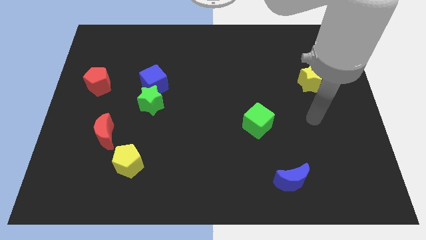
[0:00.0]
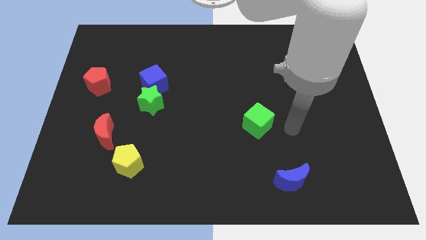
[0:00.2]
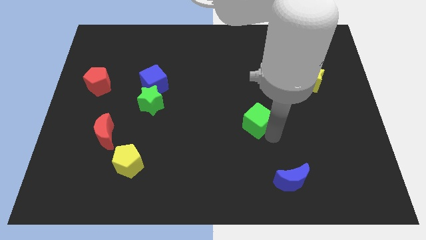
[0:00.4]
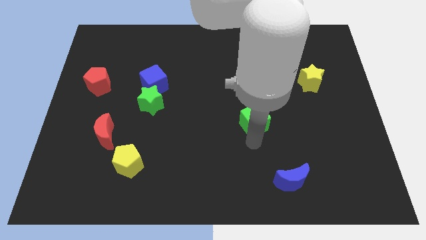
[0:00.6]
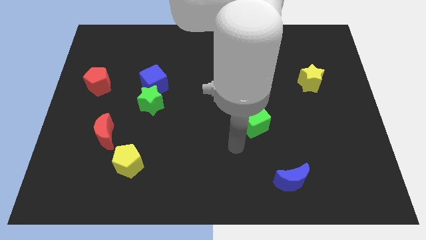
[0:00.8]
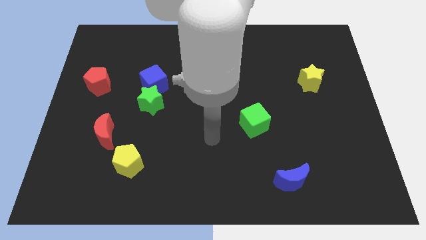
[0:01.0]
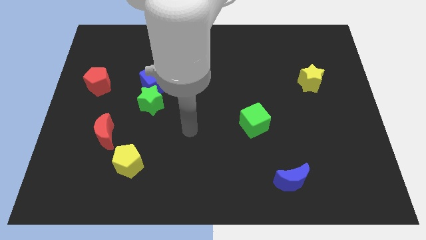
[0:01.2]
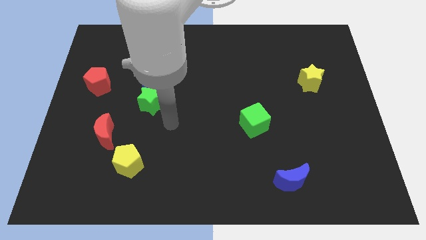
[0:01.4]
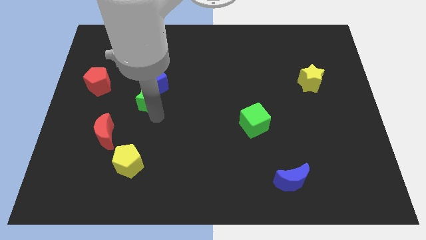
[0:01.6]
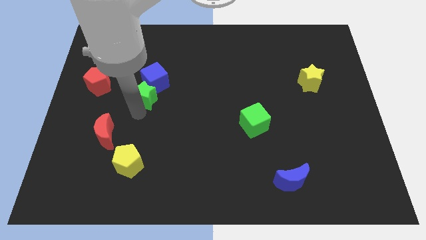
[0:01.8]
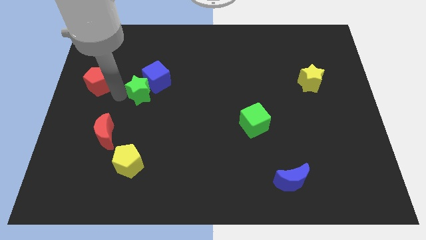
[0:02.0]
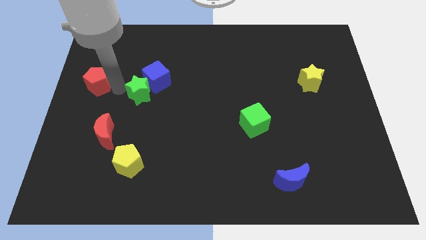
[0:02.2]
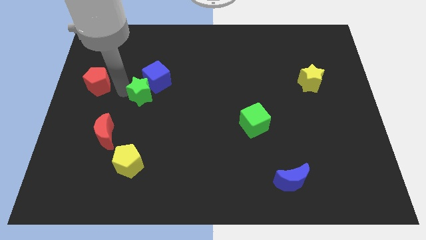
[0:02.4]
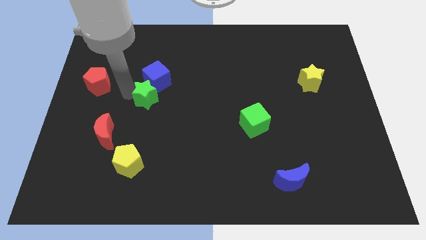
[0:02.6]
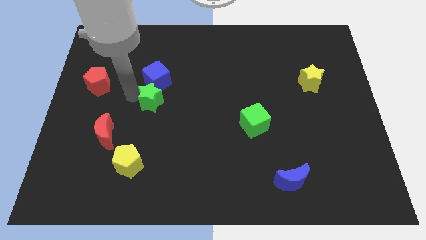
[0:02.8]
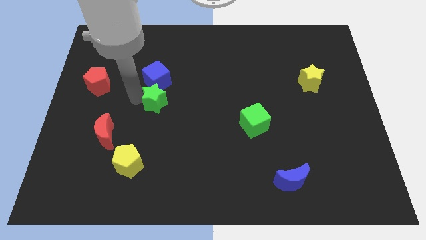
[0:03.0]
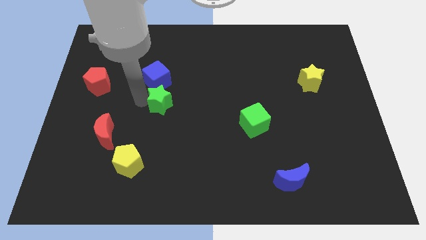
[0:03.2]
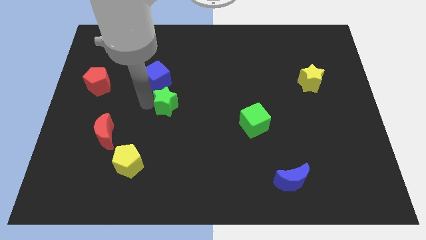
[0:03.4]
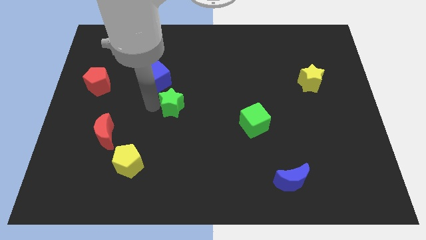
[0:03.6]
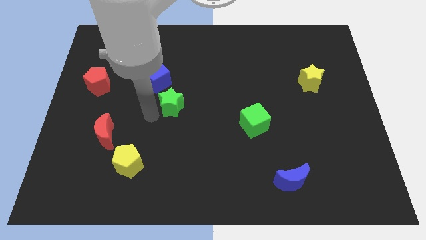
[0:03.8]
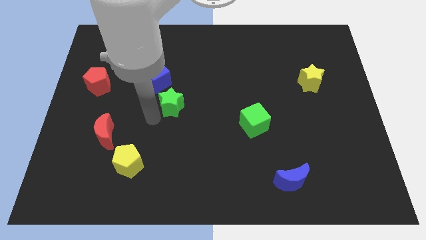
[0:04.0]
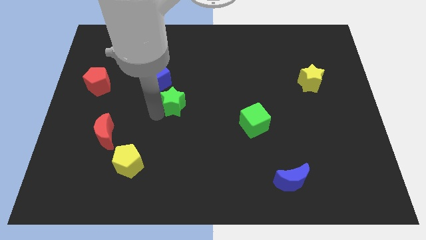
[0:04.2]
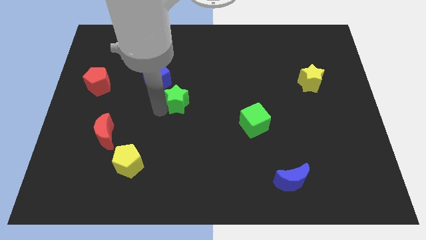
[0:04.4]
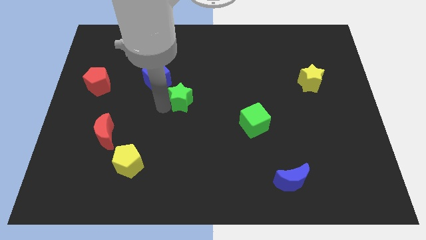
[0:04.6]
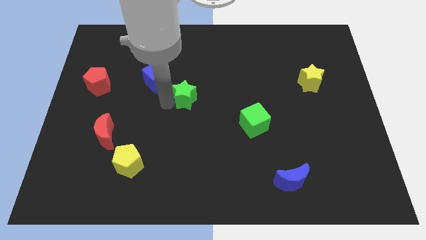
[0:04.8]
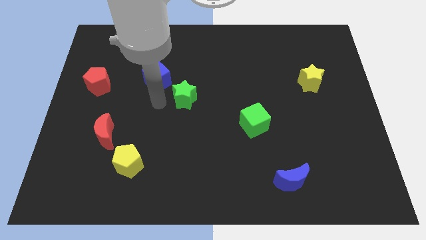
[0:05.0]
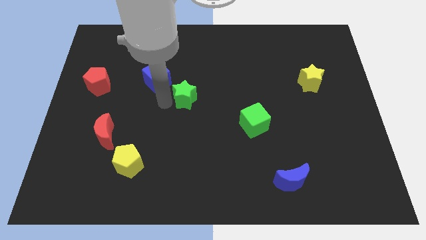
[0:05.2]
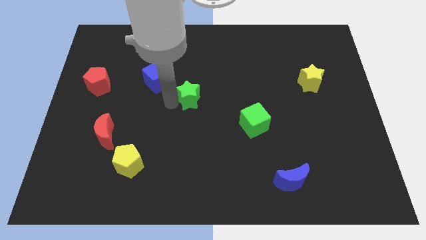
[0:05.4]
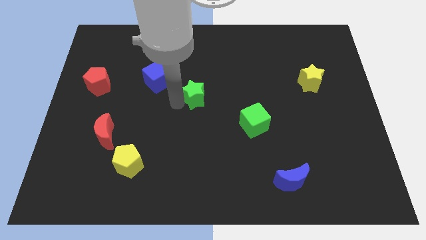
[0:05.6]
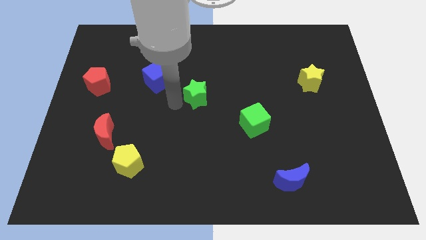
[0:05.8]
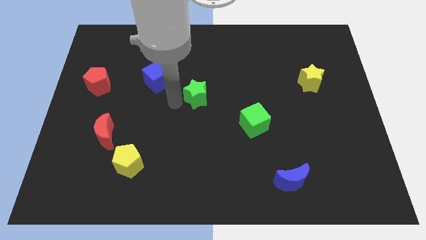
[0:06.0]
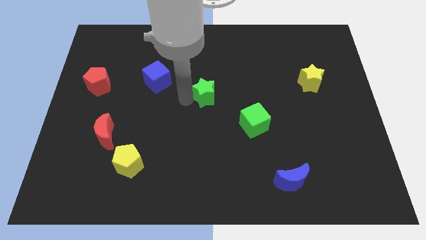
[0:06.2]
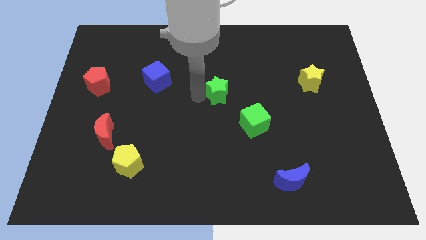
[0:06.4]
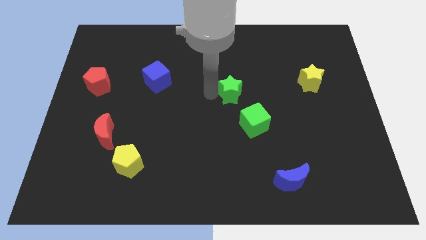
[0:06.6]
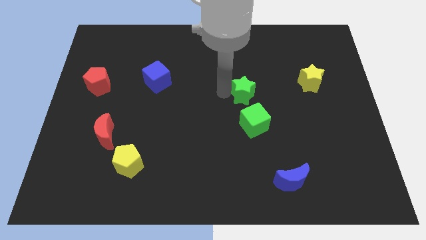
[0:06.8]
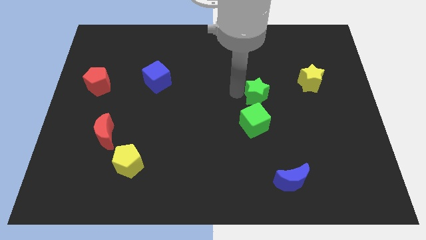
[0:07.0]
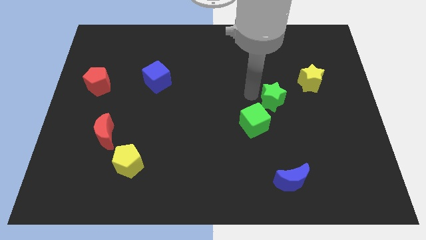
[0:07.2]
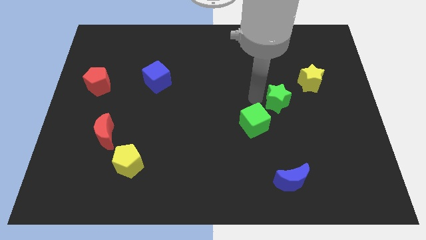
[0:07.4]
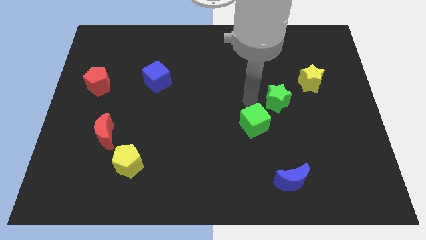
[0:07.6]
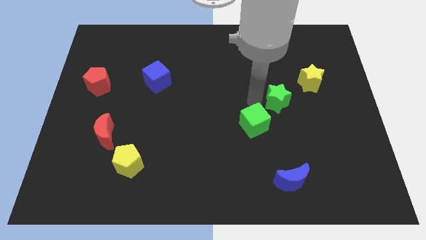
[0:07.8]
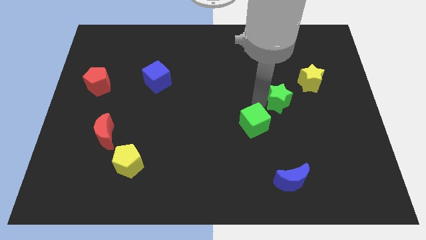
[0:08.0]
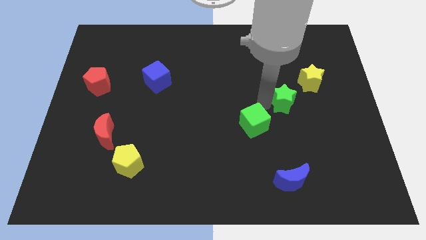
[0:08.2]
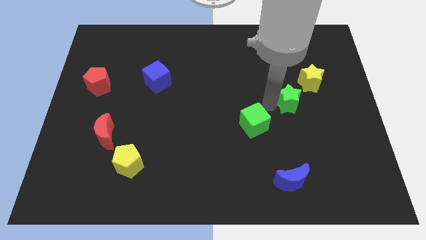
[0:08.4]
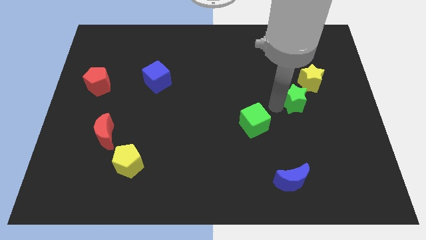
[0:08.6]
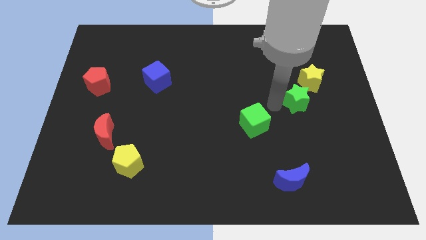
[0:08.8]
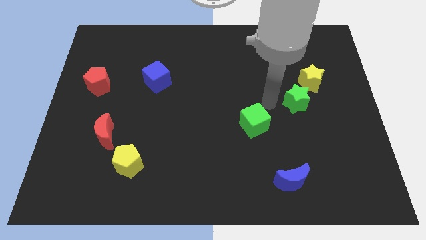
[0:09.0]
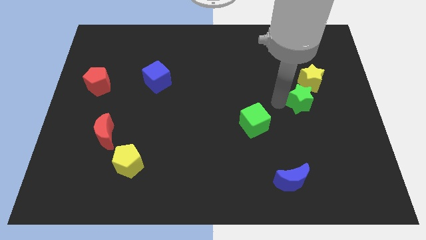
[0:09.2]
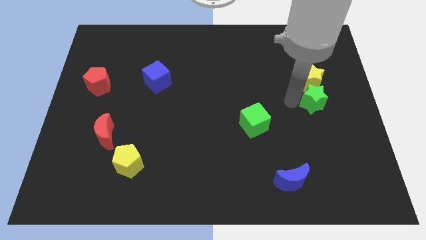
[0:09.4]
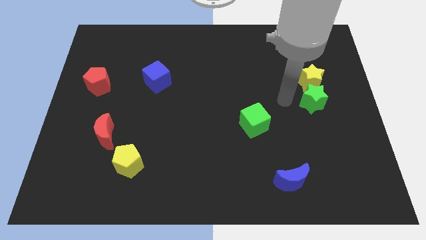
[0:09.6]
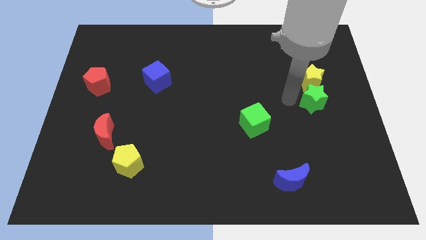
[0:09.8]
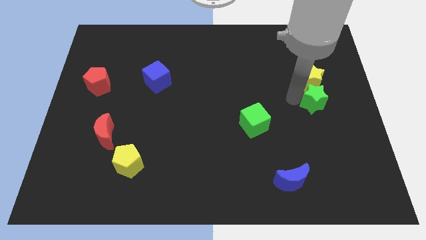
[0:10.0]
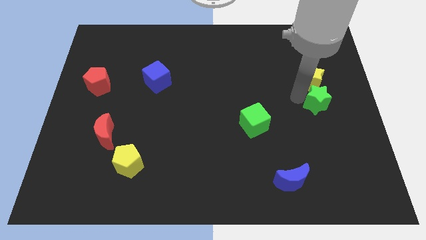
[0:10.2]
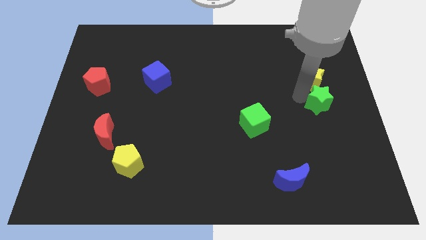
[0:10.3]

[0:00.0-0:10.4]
put the green star to the center right

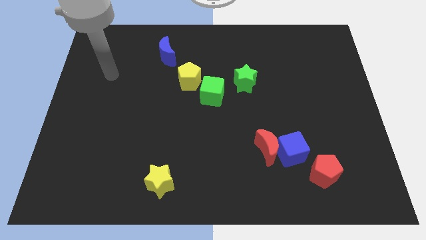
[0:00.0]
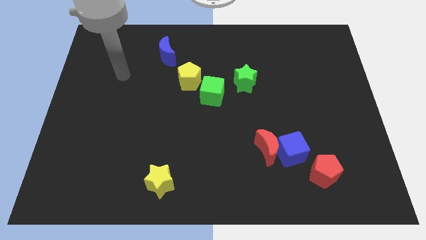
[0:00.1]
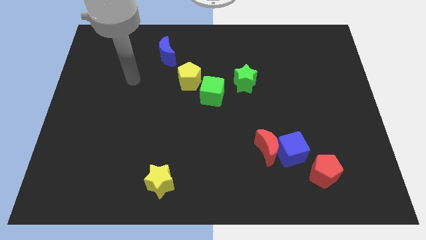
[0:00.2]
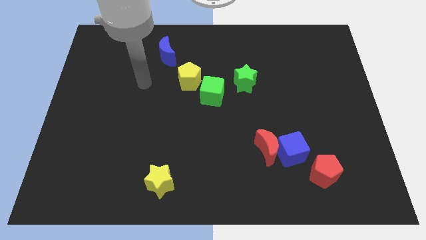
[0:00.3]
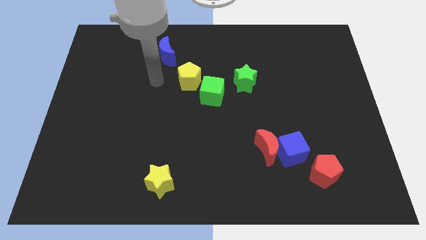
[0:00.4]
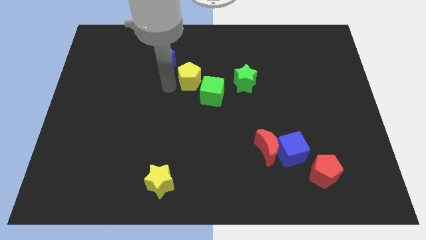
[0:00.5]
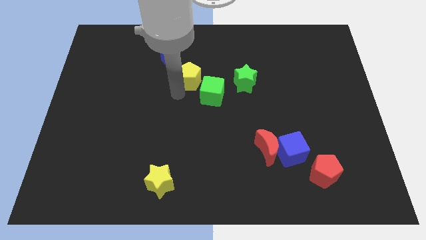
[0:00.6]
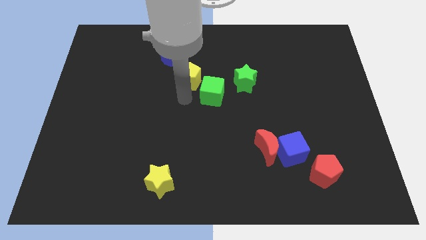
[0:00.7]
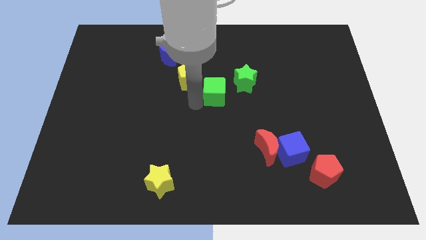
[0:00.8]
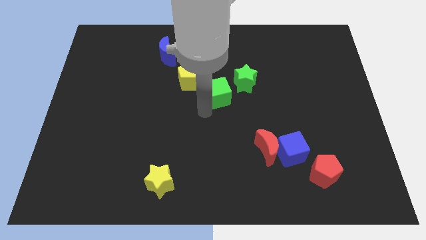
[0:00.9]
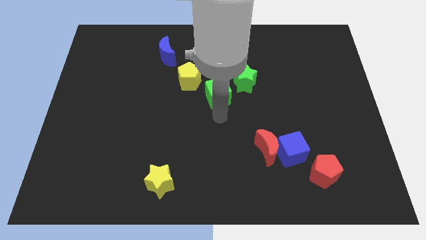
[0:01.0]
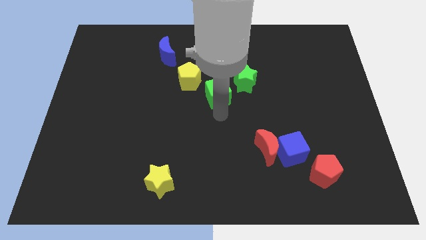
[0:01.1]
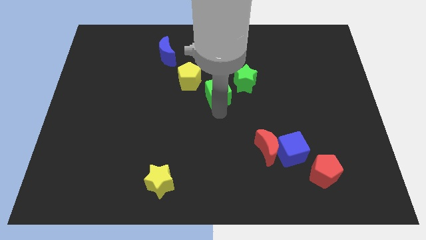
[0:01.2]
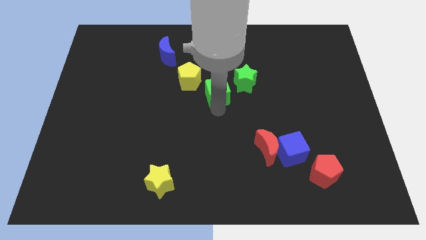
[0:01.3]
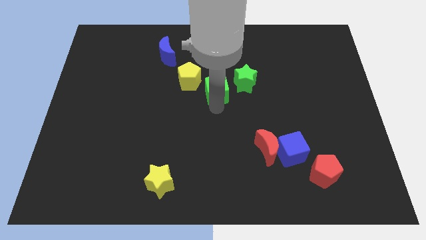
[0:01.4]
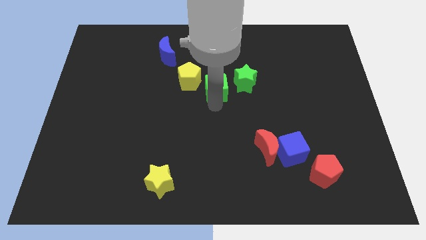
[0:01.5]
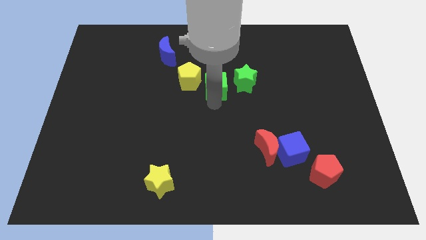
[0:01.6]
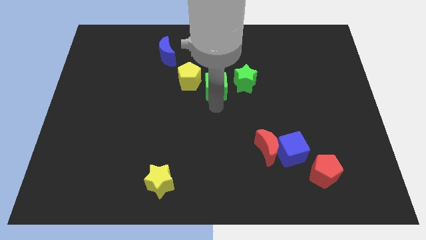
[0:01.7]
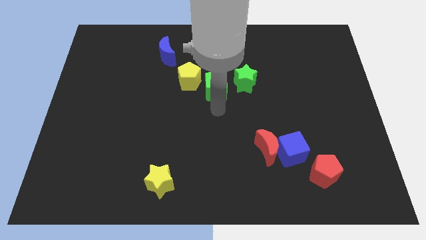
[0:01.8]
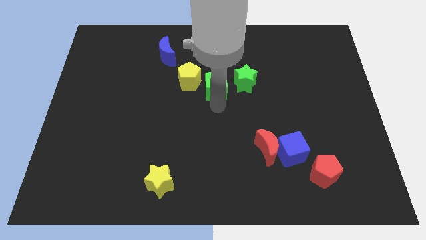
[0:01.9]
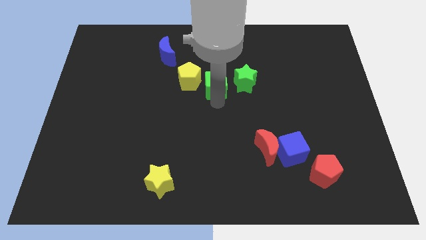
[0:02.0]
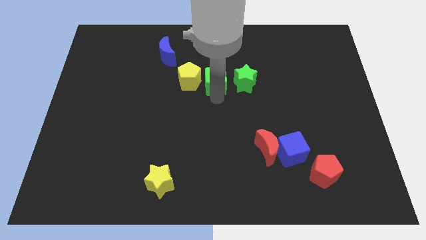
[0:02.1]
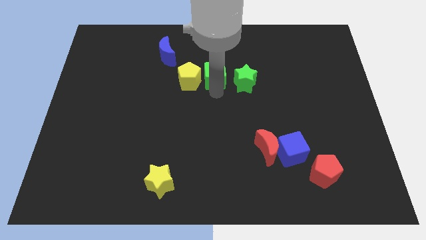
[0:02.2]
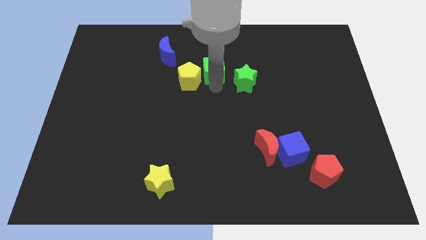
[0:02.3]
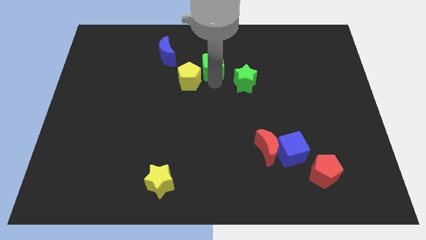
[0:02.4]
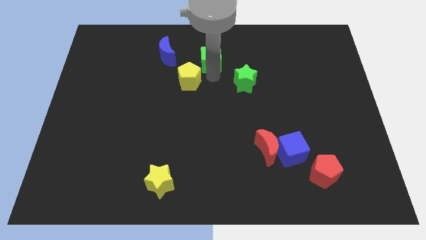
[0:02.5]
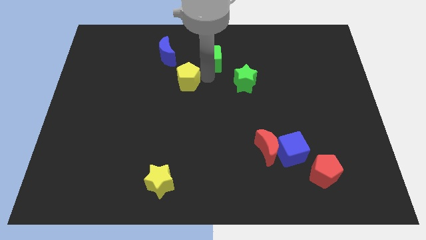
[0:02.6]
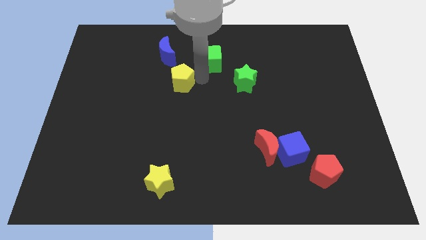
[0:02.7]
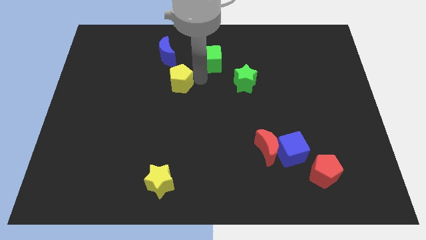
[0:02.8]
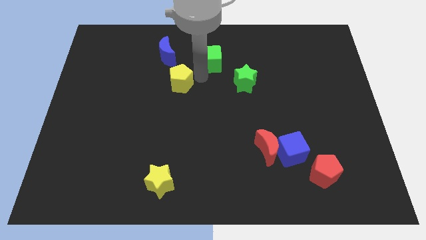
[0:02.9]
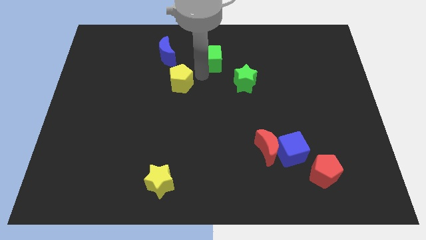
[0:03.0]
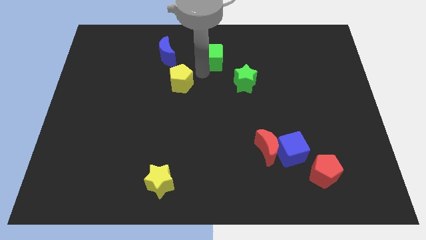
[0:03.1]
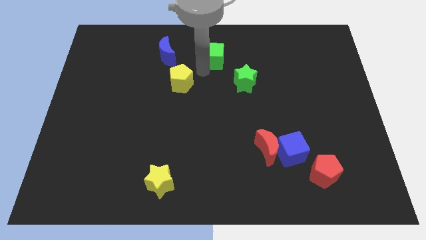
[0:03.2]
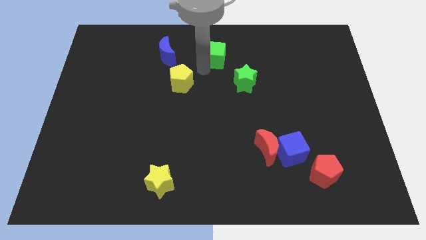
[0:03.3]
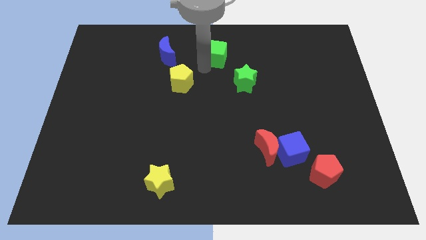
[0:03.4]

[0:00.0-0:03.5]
move the green cube to the towards your base
